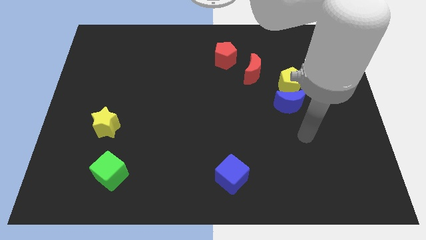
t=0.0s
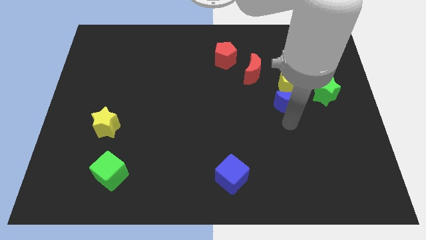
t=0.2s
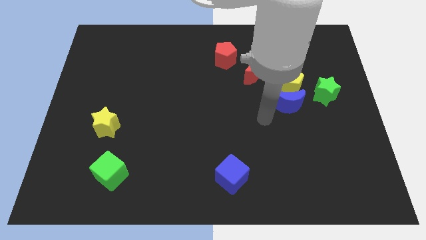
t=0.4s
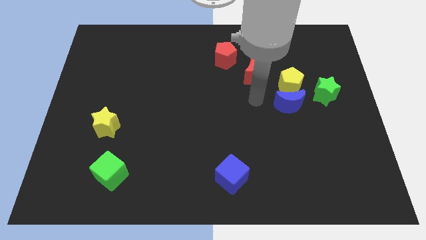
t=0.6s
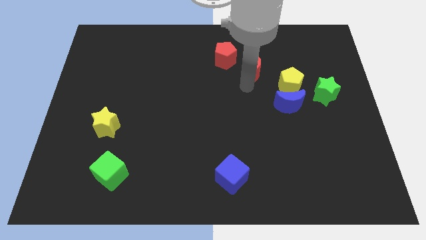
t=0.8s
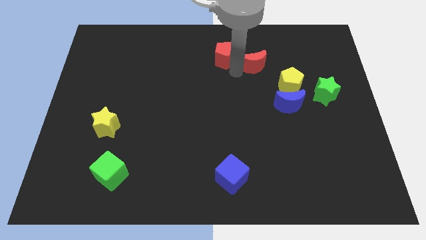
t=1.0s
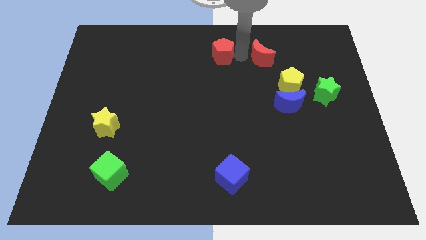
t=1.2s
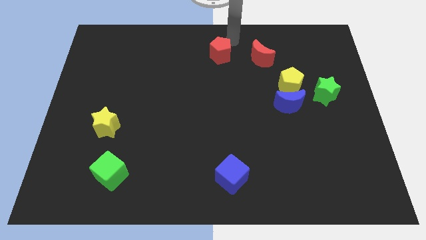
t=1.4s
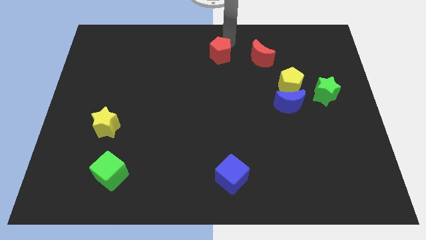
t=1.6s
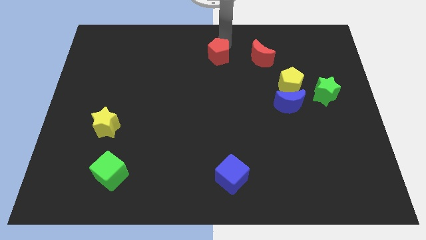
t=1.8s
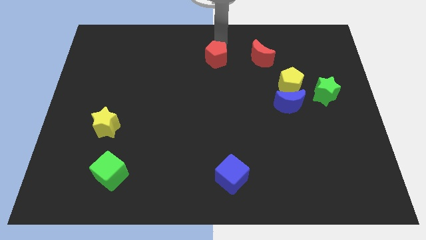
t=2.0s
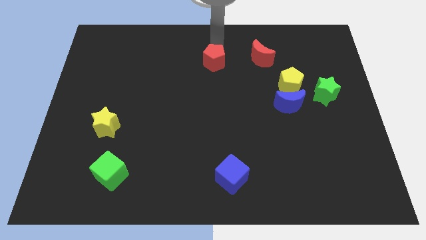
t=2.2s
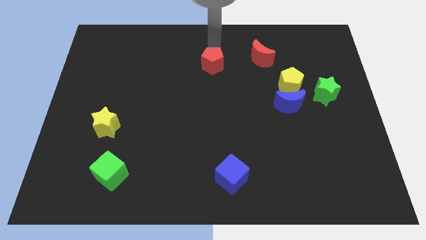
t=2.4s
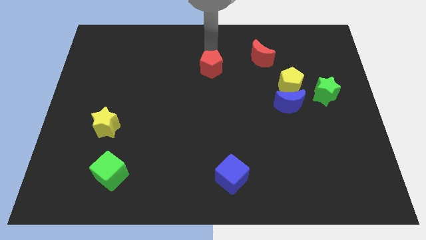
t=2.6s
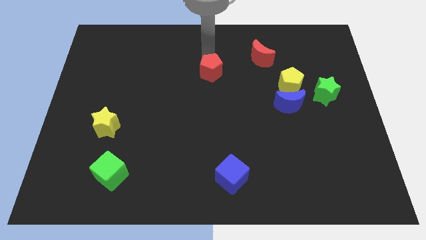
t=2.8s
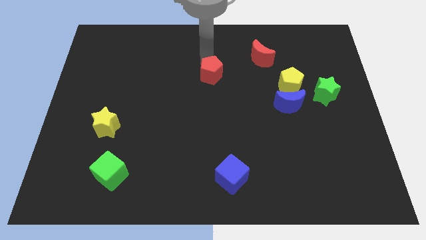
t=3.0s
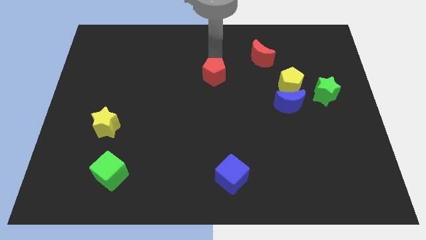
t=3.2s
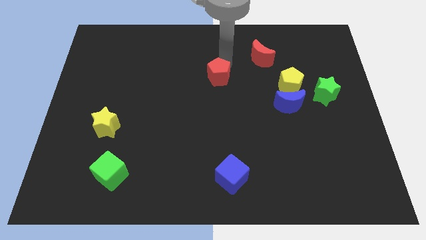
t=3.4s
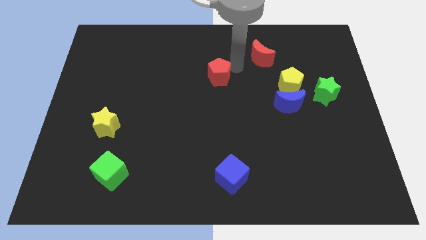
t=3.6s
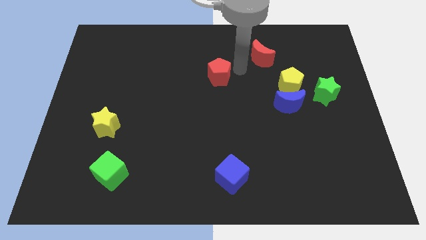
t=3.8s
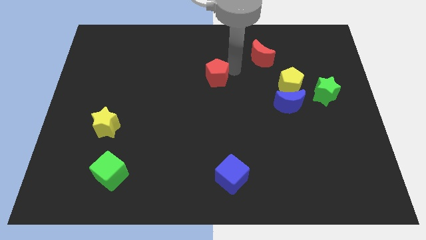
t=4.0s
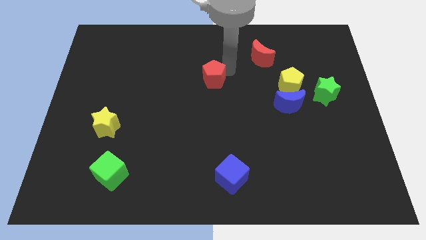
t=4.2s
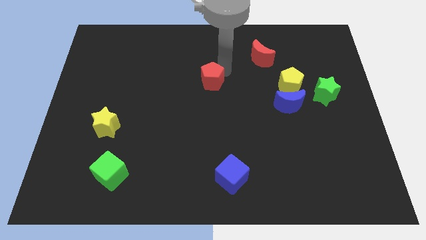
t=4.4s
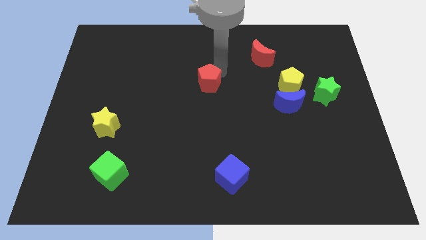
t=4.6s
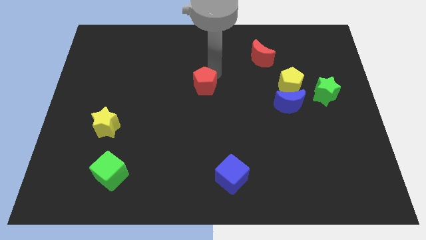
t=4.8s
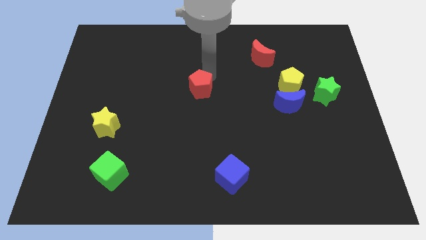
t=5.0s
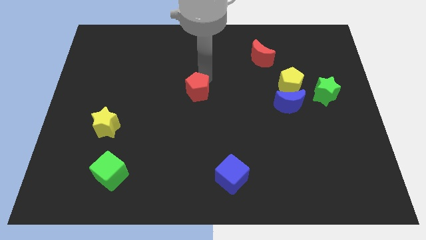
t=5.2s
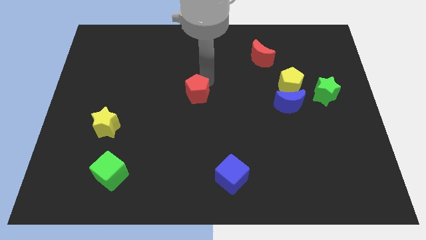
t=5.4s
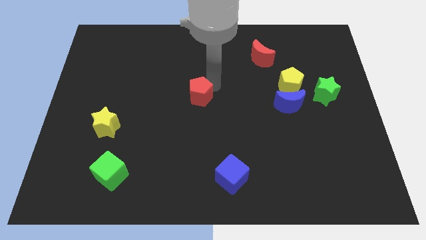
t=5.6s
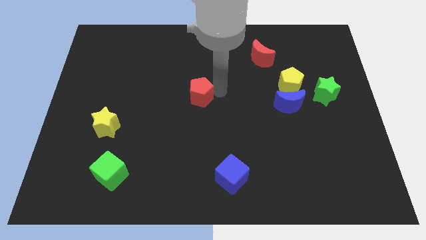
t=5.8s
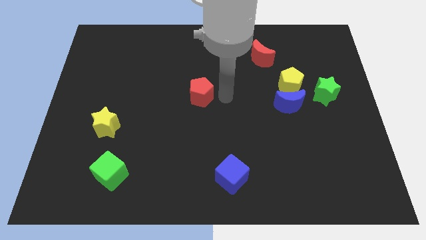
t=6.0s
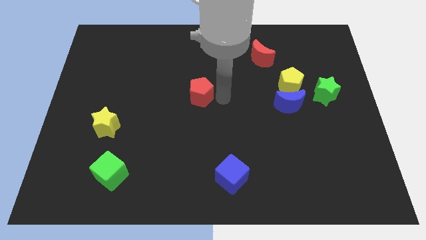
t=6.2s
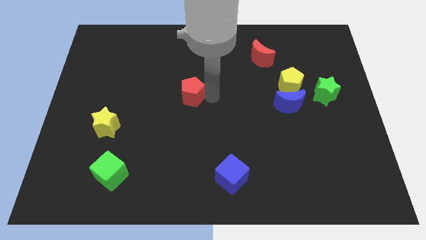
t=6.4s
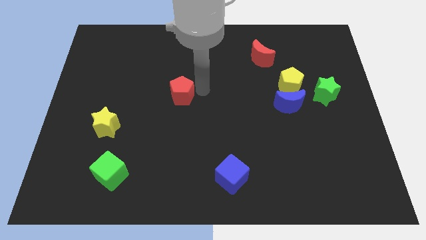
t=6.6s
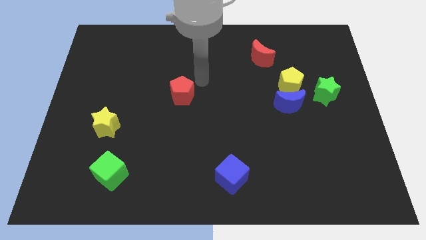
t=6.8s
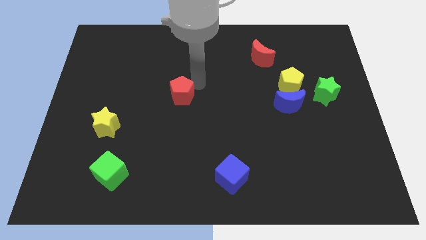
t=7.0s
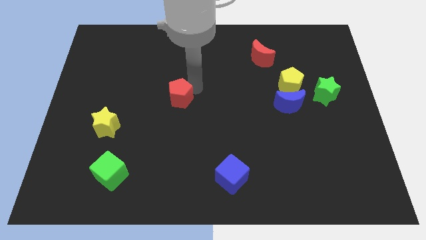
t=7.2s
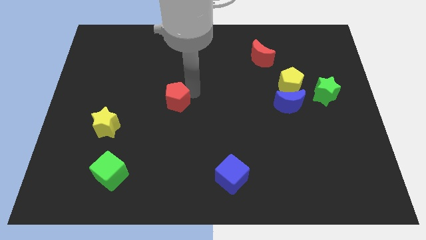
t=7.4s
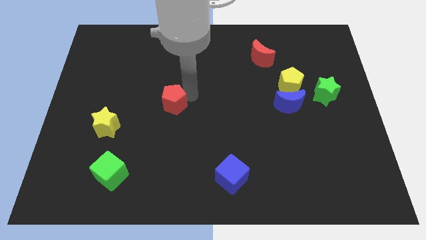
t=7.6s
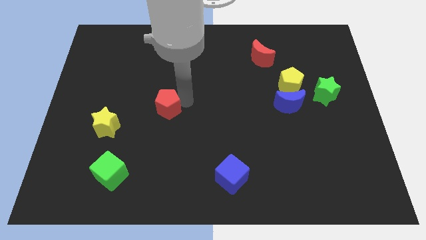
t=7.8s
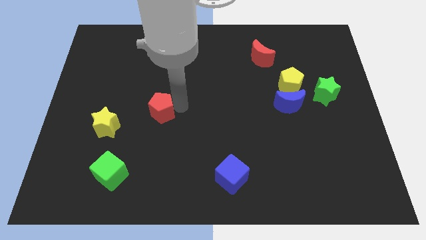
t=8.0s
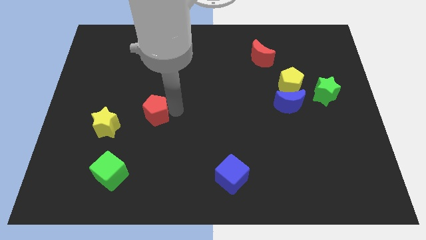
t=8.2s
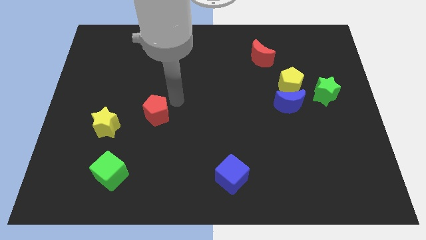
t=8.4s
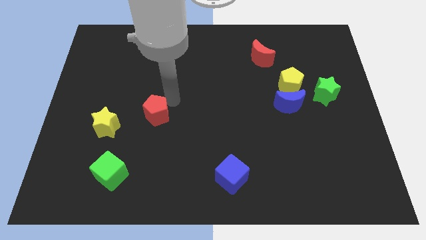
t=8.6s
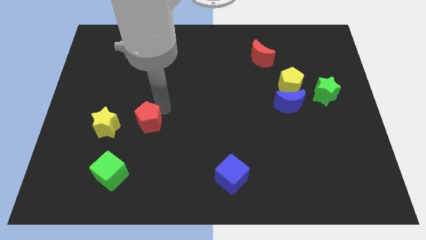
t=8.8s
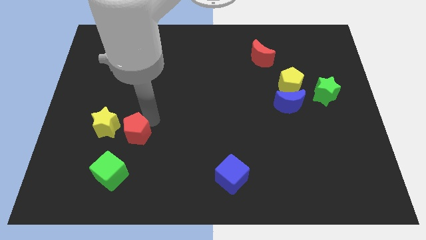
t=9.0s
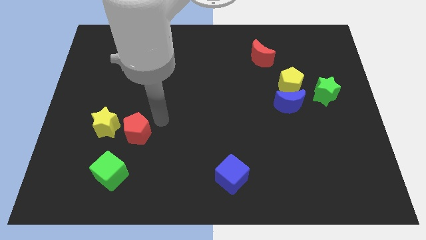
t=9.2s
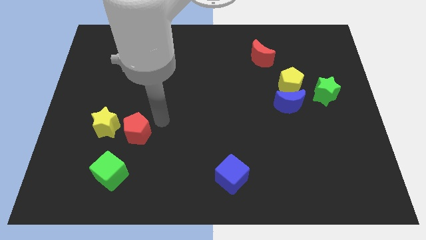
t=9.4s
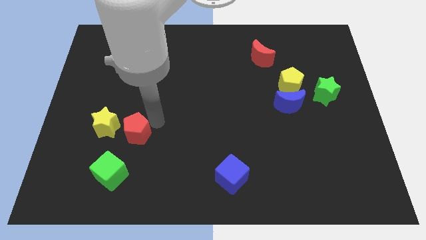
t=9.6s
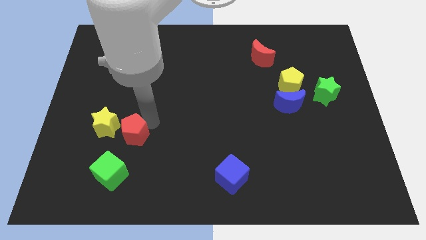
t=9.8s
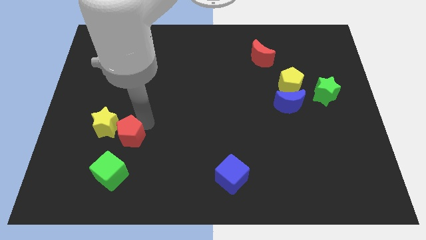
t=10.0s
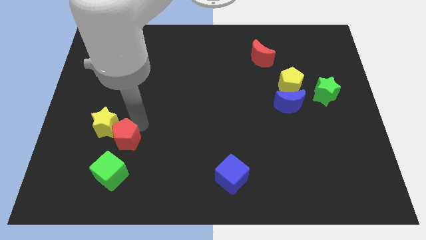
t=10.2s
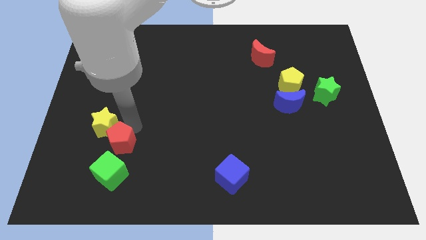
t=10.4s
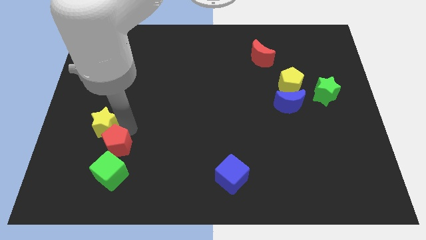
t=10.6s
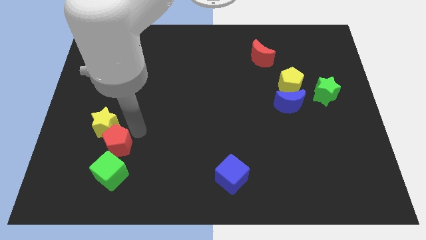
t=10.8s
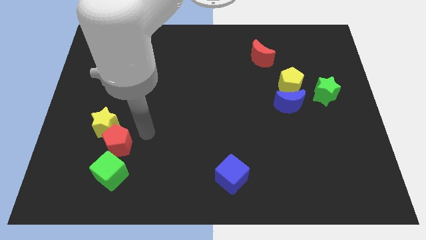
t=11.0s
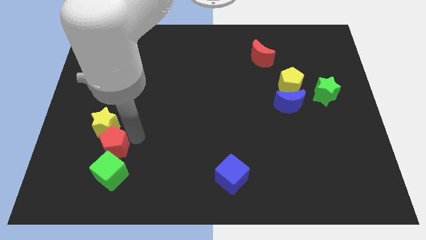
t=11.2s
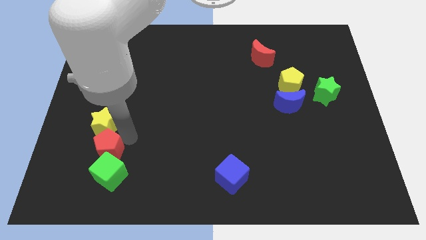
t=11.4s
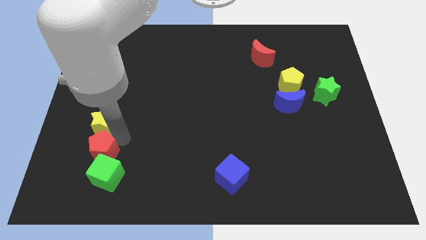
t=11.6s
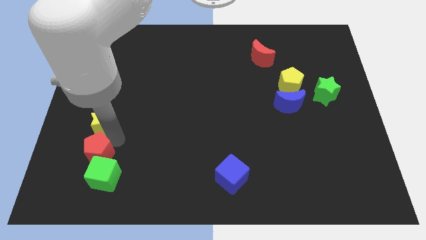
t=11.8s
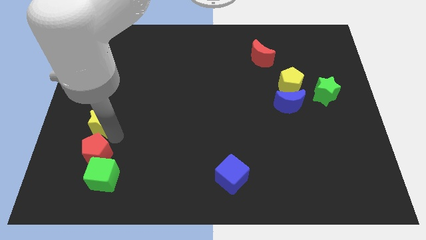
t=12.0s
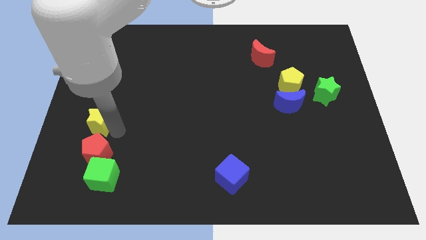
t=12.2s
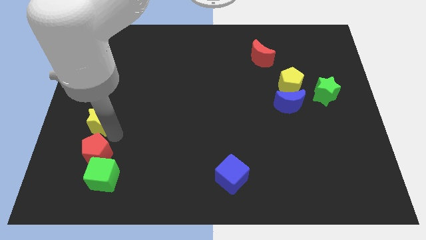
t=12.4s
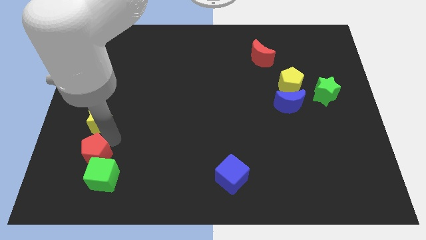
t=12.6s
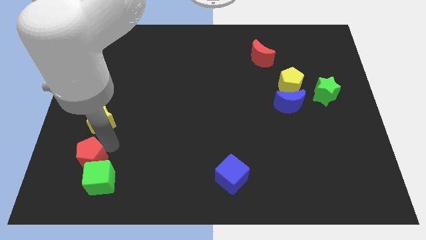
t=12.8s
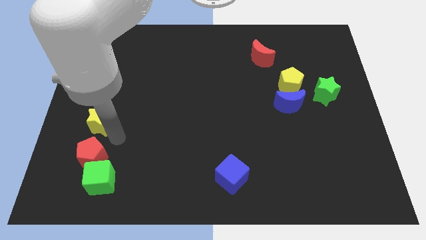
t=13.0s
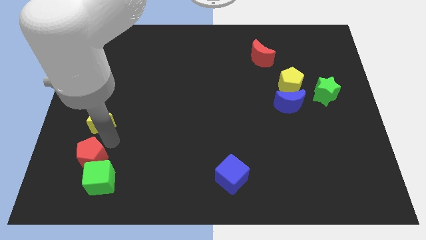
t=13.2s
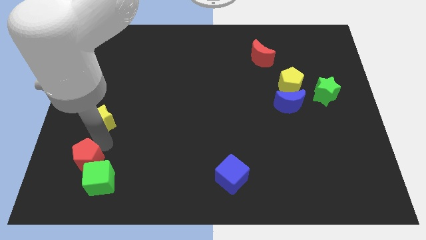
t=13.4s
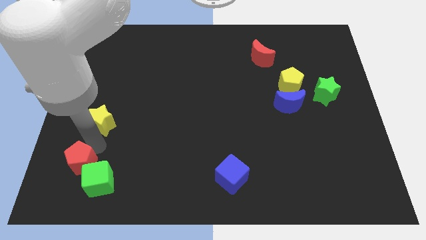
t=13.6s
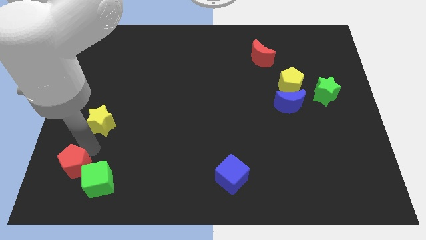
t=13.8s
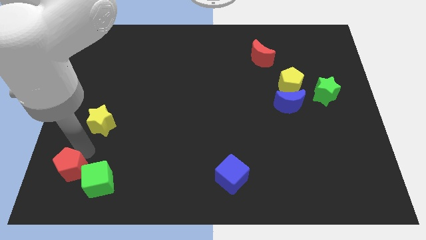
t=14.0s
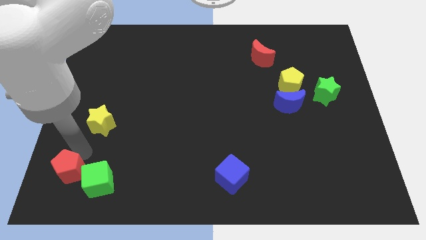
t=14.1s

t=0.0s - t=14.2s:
move the red pentagon to the lower left corner

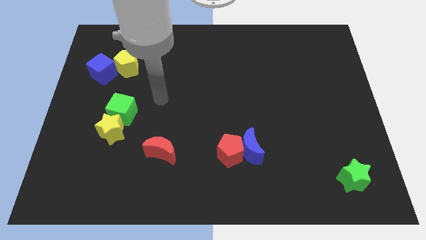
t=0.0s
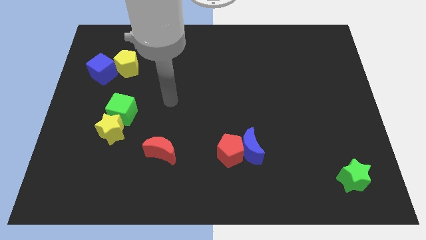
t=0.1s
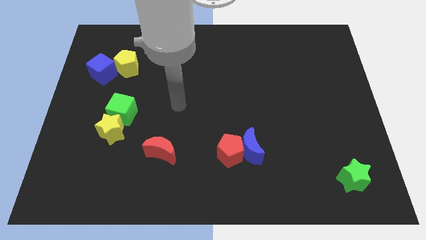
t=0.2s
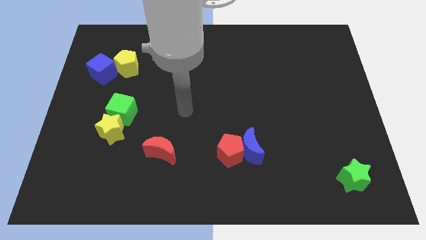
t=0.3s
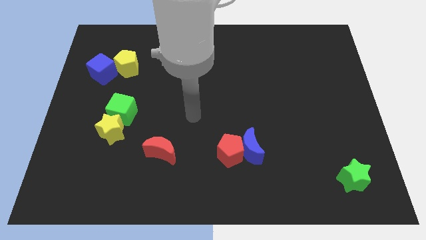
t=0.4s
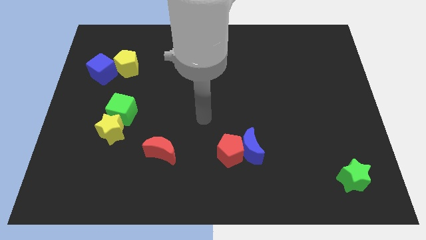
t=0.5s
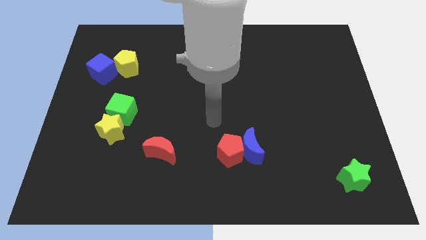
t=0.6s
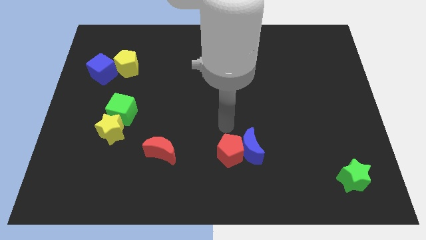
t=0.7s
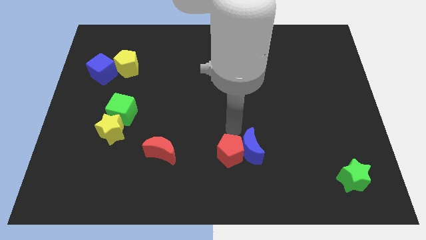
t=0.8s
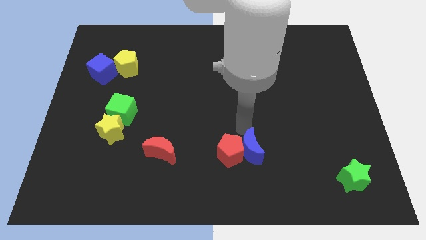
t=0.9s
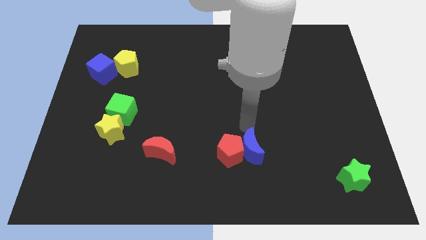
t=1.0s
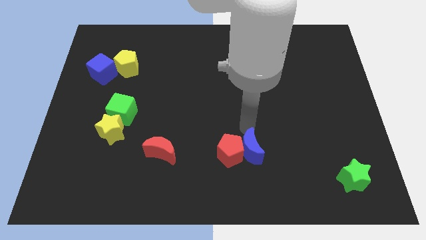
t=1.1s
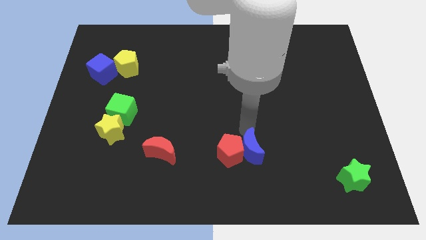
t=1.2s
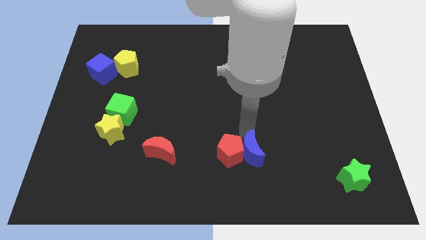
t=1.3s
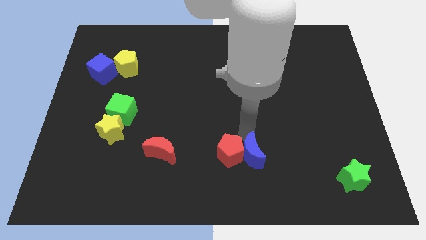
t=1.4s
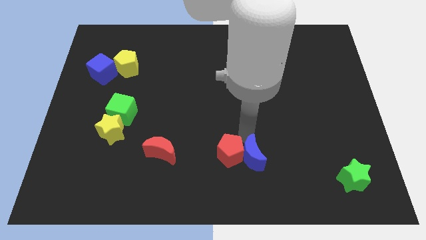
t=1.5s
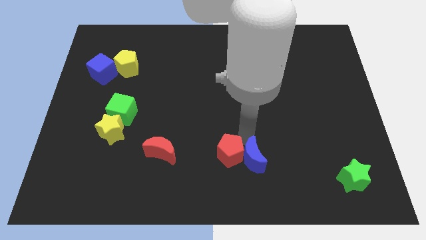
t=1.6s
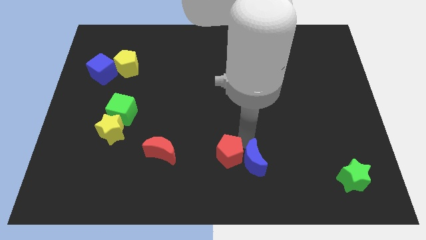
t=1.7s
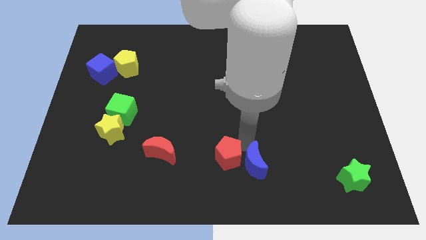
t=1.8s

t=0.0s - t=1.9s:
move the blue moon to the bottom
